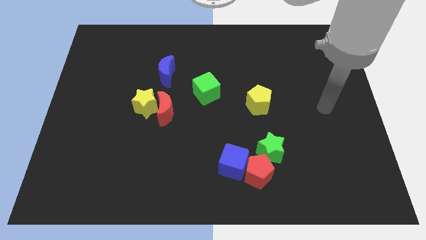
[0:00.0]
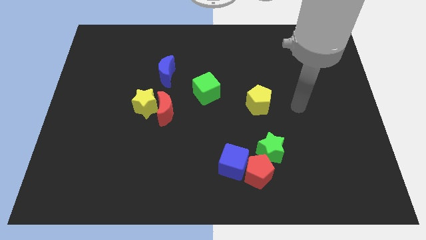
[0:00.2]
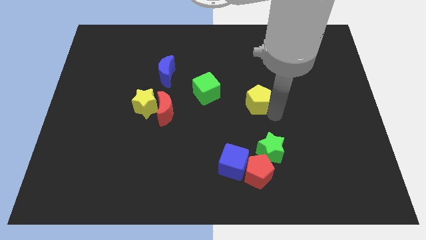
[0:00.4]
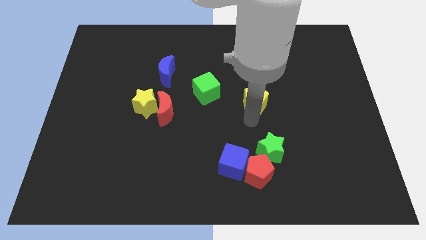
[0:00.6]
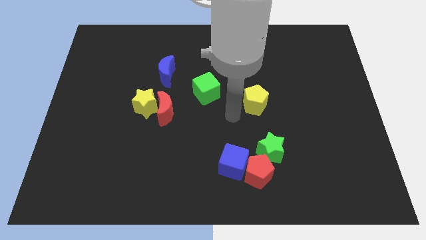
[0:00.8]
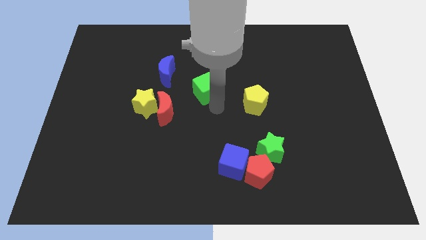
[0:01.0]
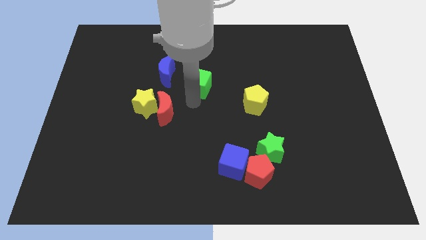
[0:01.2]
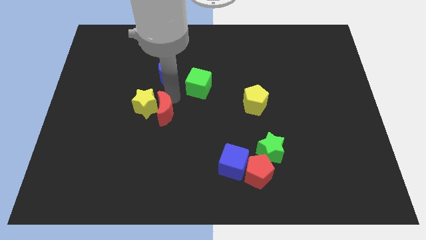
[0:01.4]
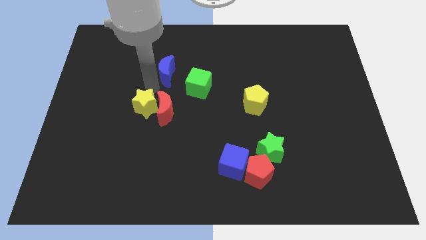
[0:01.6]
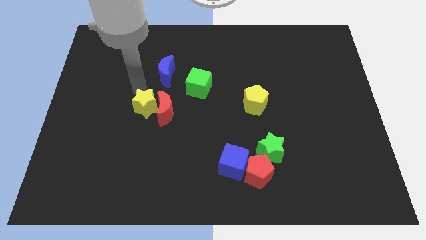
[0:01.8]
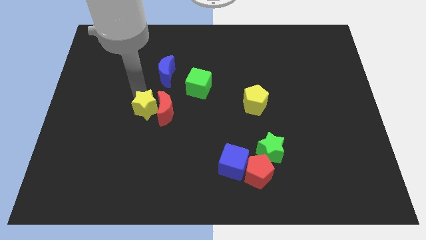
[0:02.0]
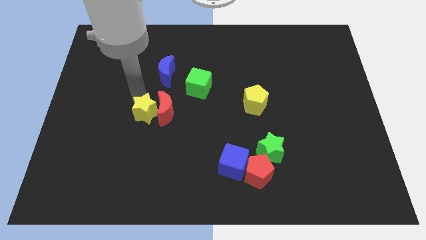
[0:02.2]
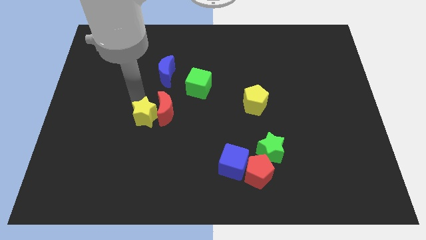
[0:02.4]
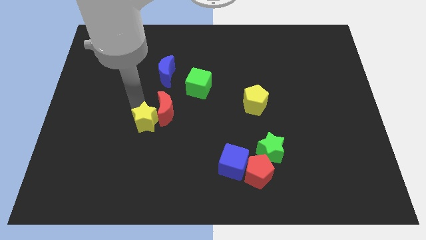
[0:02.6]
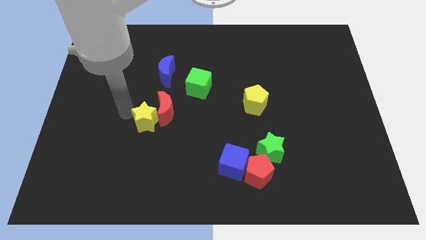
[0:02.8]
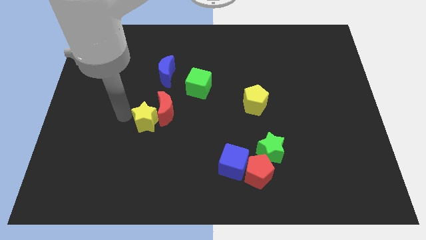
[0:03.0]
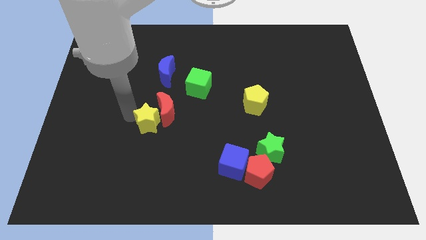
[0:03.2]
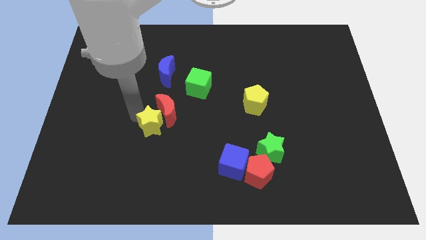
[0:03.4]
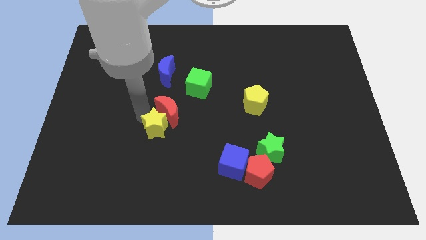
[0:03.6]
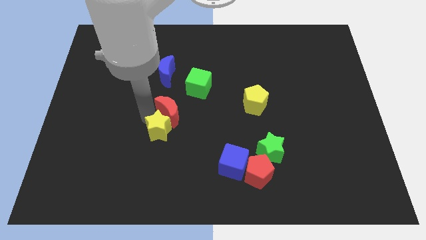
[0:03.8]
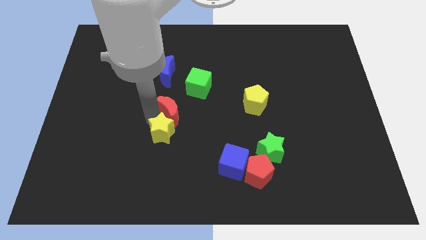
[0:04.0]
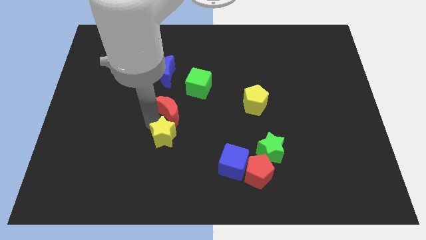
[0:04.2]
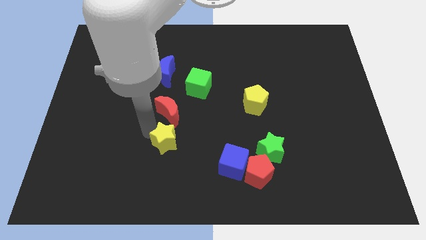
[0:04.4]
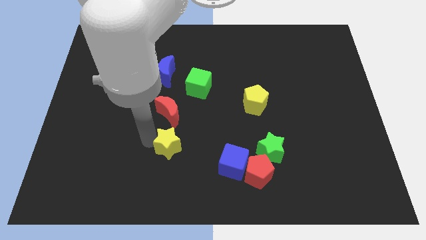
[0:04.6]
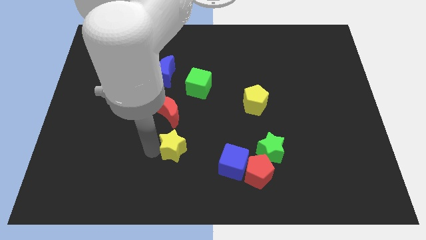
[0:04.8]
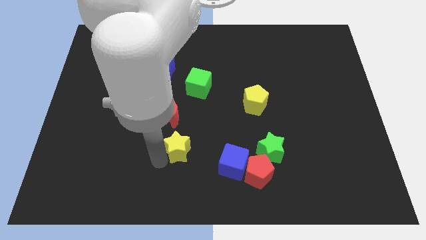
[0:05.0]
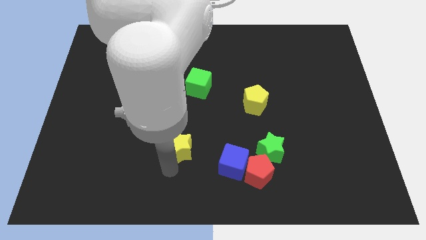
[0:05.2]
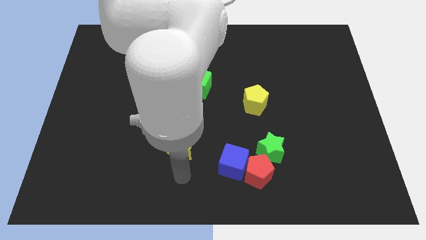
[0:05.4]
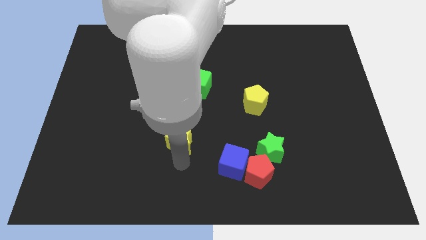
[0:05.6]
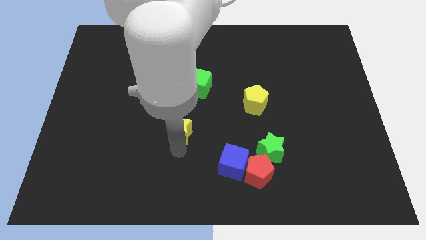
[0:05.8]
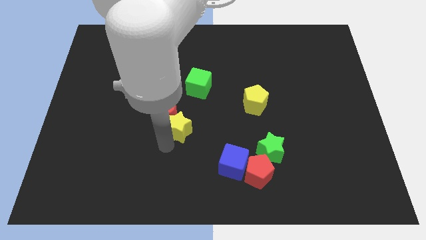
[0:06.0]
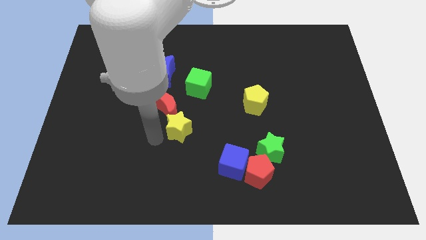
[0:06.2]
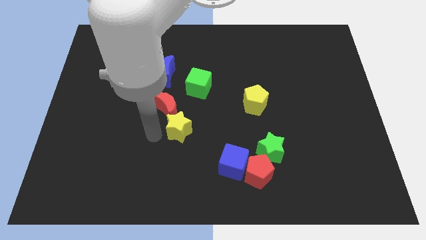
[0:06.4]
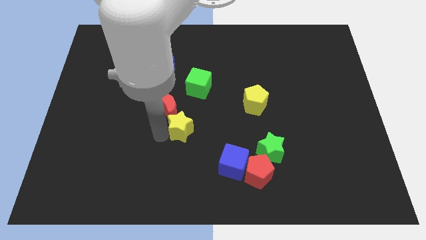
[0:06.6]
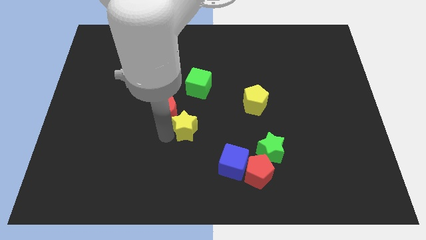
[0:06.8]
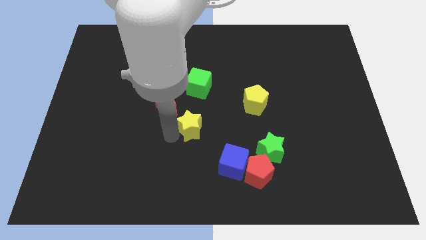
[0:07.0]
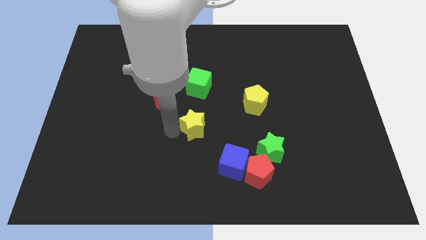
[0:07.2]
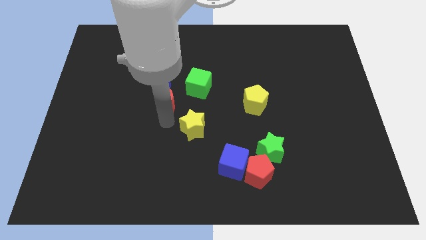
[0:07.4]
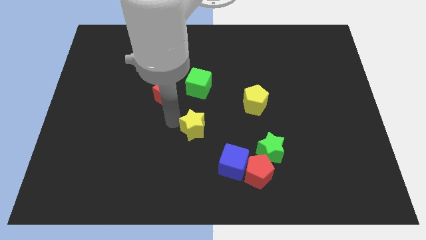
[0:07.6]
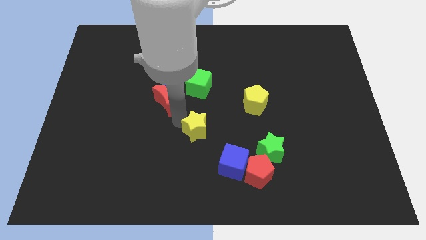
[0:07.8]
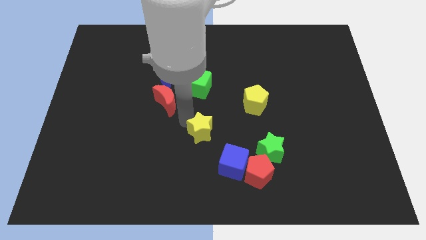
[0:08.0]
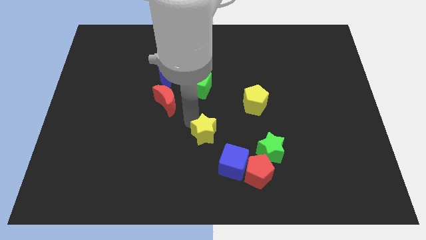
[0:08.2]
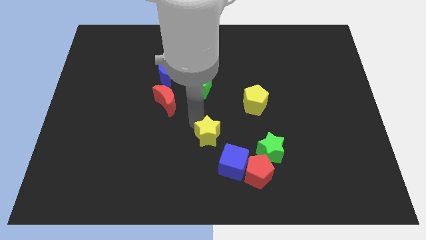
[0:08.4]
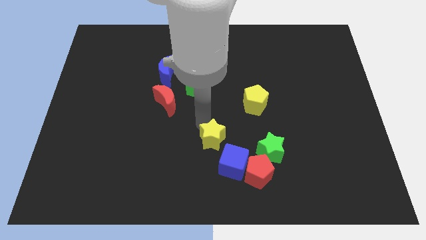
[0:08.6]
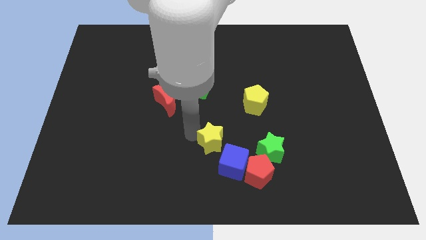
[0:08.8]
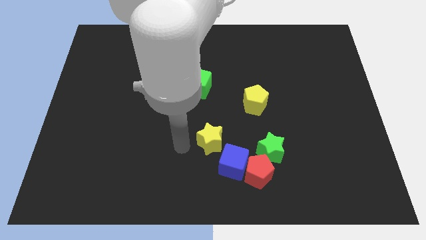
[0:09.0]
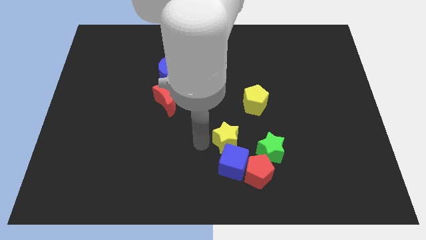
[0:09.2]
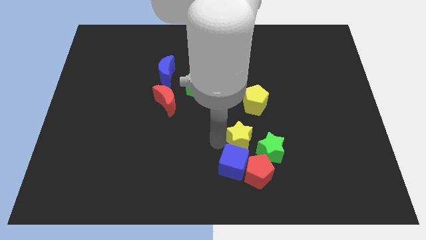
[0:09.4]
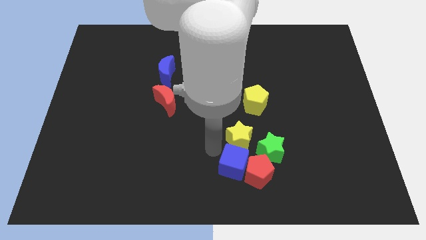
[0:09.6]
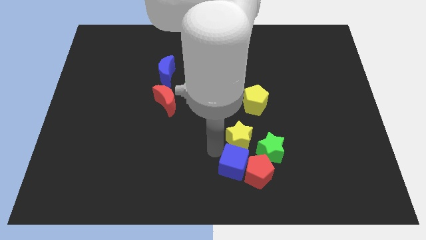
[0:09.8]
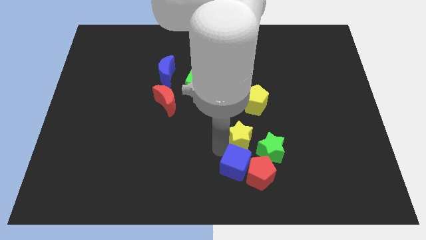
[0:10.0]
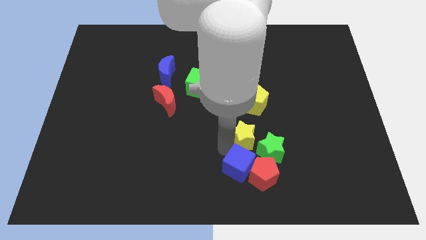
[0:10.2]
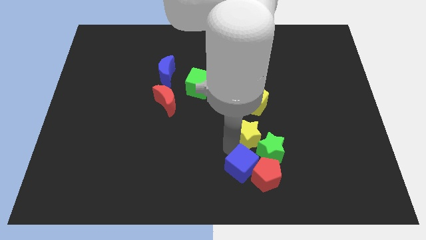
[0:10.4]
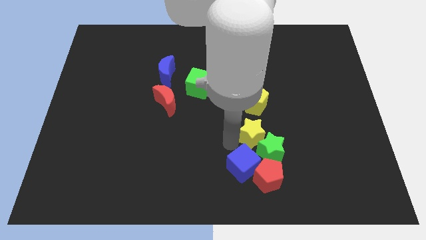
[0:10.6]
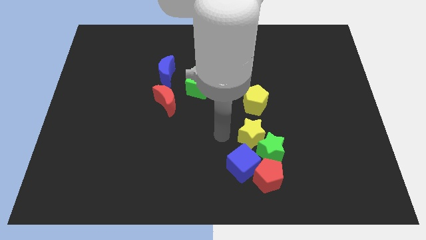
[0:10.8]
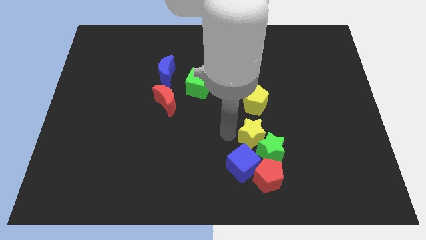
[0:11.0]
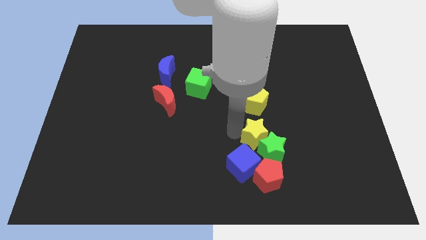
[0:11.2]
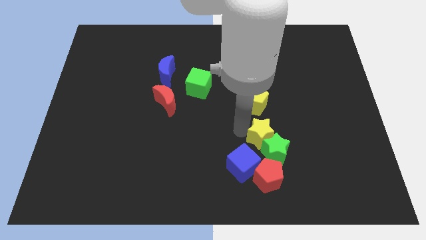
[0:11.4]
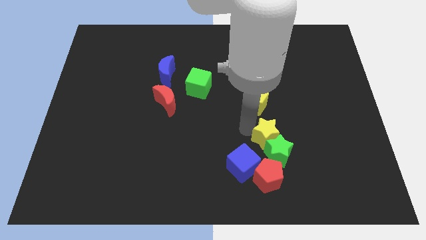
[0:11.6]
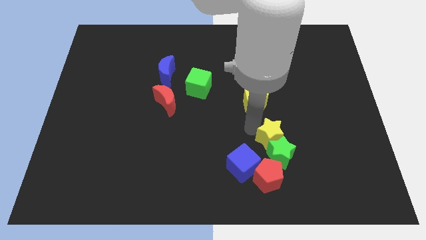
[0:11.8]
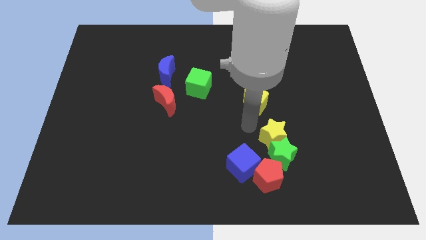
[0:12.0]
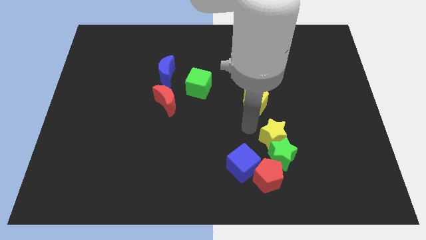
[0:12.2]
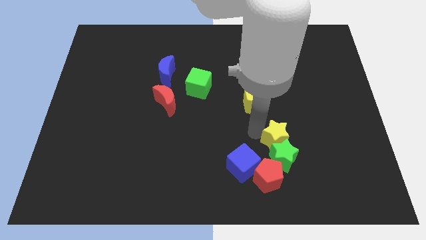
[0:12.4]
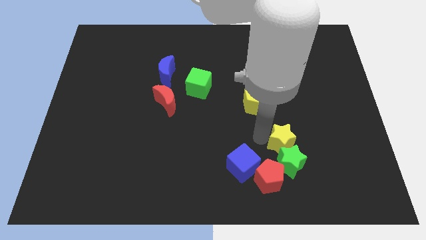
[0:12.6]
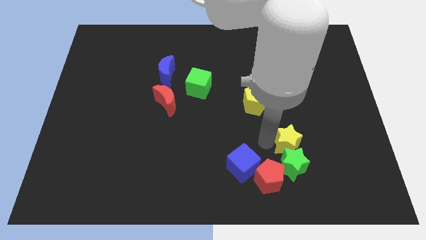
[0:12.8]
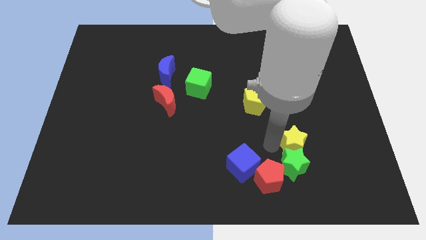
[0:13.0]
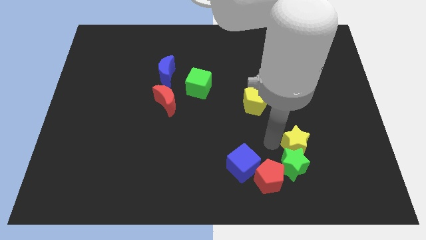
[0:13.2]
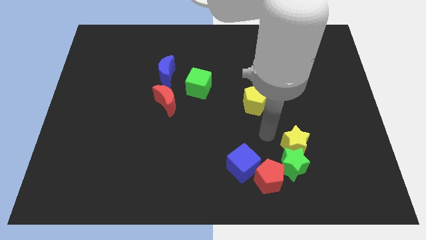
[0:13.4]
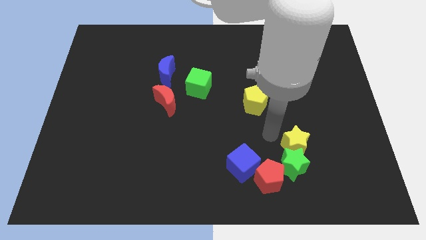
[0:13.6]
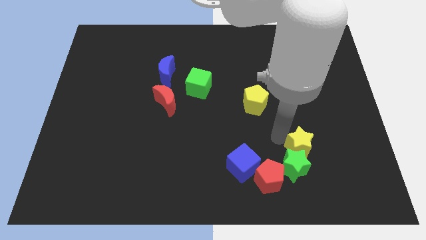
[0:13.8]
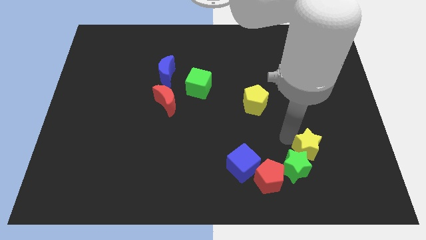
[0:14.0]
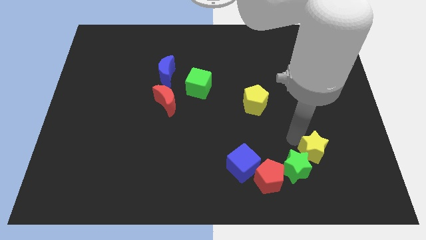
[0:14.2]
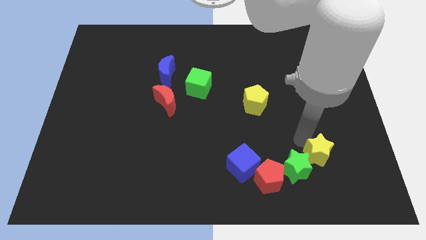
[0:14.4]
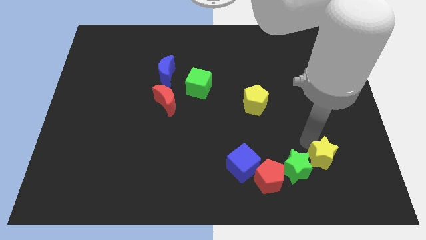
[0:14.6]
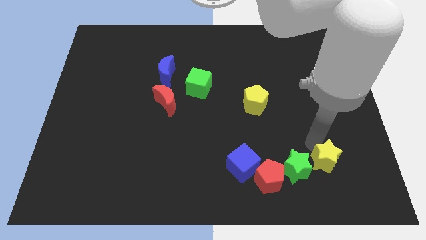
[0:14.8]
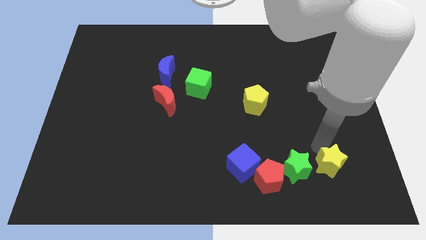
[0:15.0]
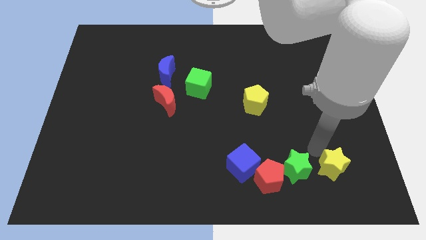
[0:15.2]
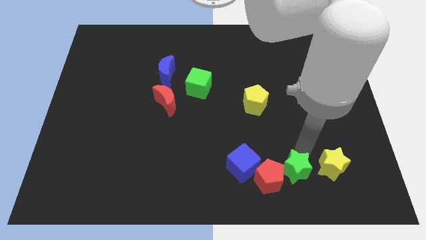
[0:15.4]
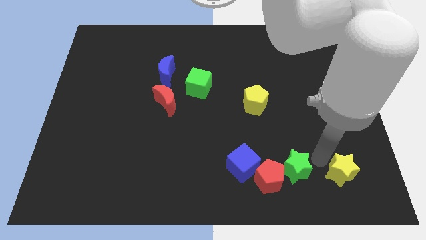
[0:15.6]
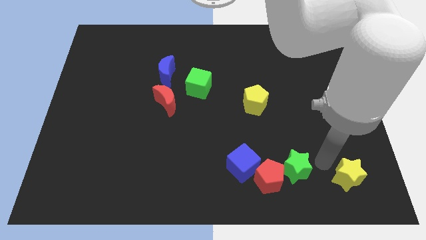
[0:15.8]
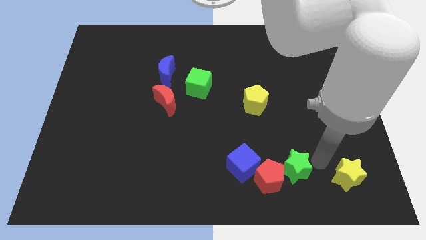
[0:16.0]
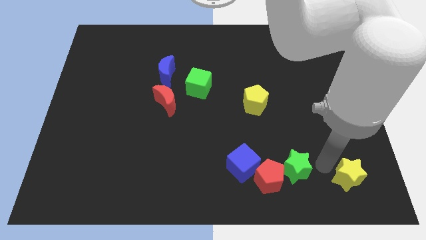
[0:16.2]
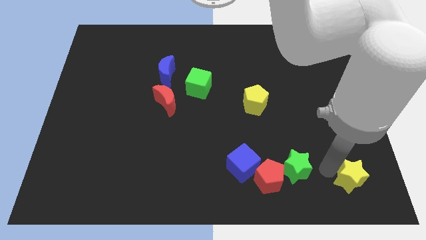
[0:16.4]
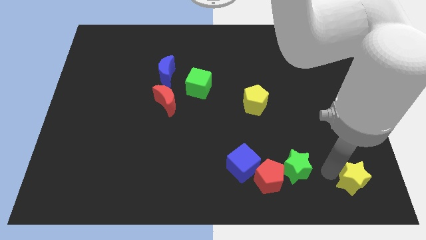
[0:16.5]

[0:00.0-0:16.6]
slide the yellow star to the lower right corner
